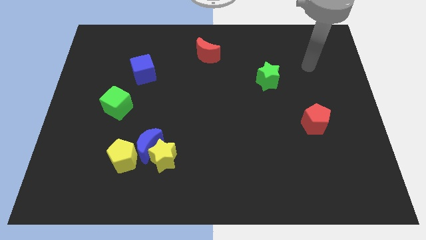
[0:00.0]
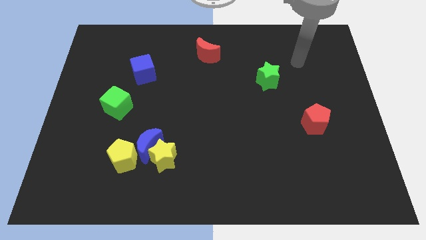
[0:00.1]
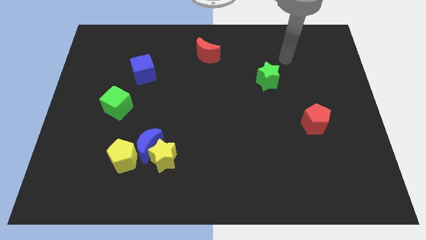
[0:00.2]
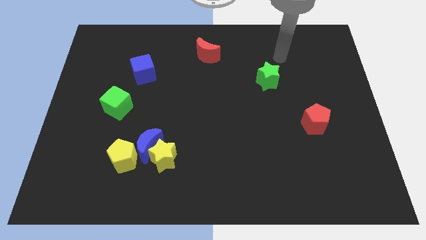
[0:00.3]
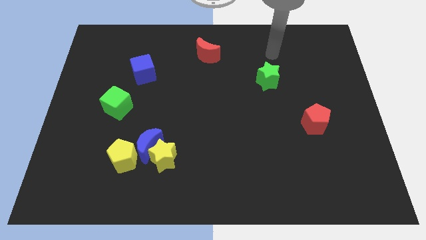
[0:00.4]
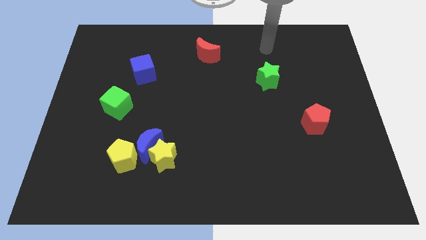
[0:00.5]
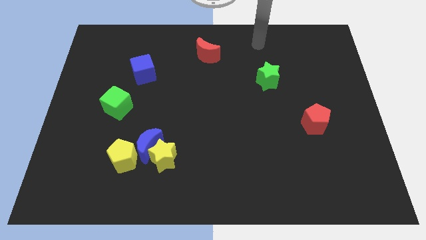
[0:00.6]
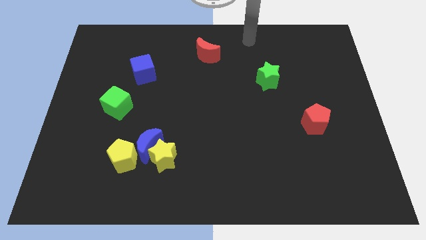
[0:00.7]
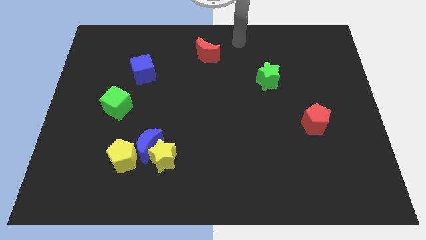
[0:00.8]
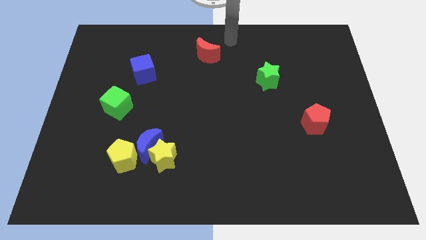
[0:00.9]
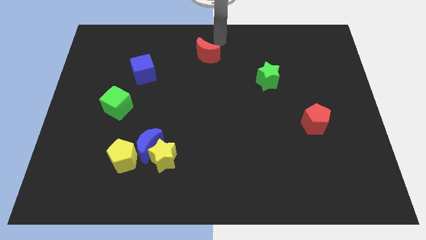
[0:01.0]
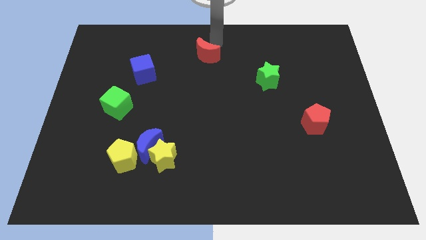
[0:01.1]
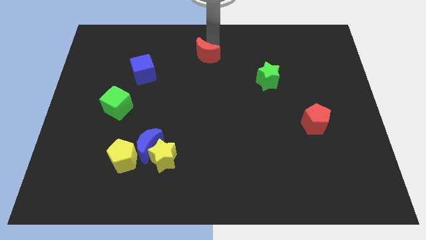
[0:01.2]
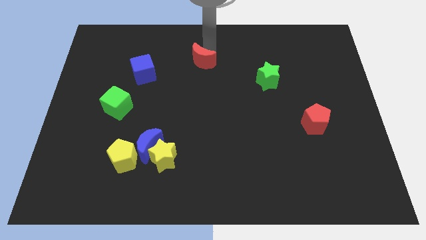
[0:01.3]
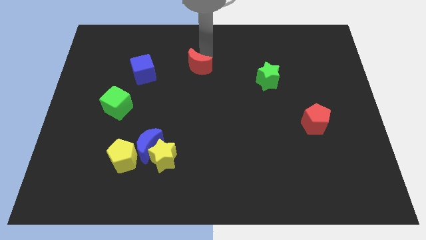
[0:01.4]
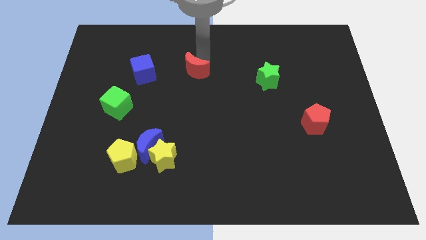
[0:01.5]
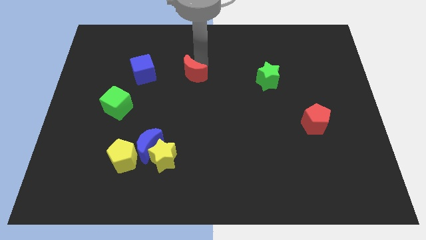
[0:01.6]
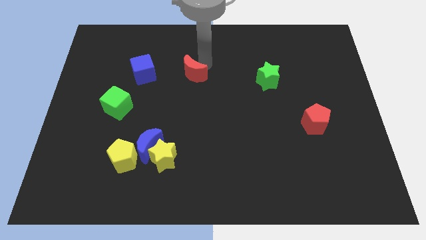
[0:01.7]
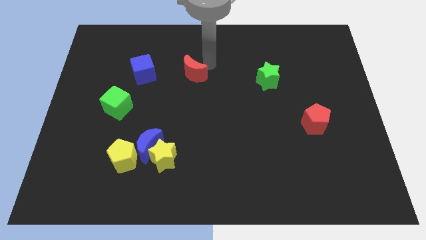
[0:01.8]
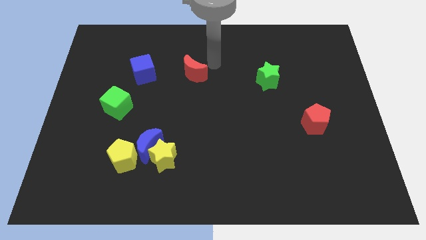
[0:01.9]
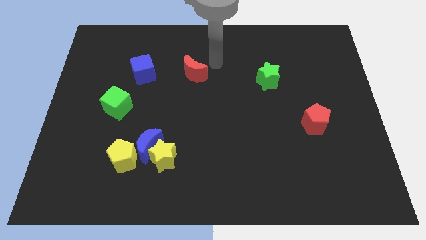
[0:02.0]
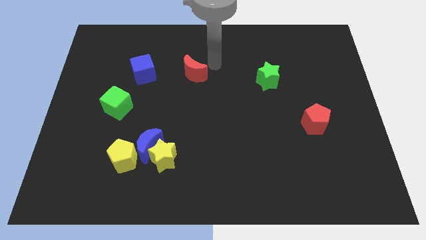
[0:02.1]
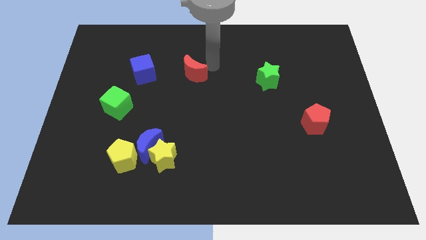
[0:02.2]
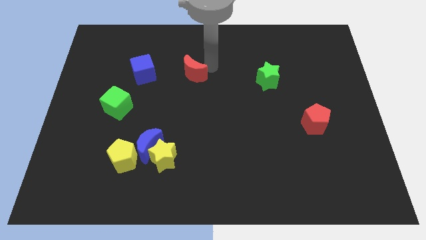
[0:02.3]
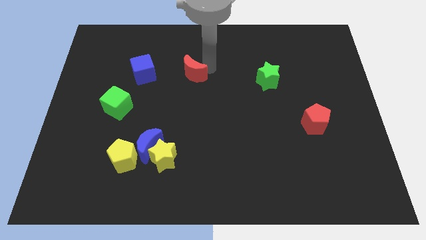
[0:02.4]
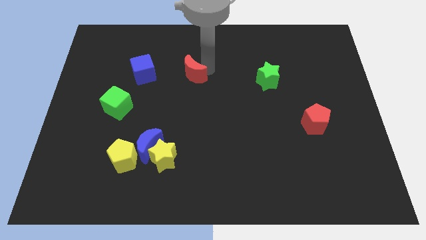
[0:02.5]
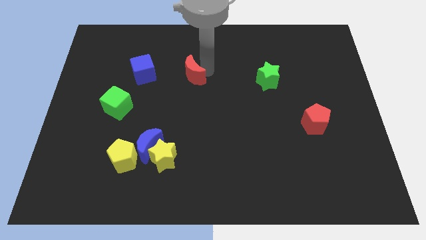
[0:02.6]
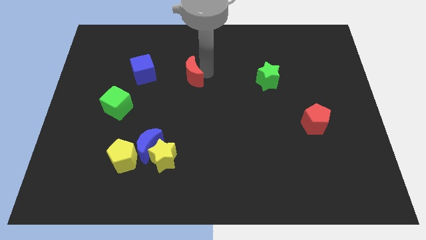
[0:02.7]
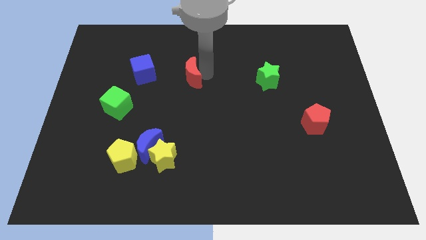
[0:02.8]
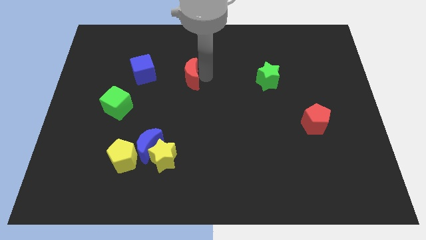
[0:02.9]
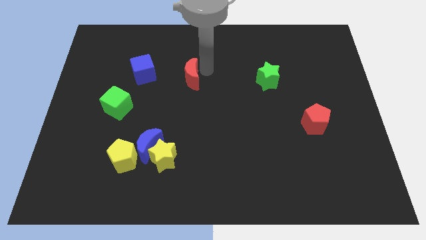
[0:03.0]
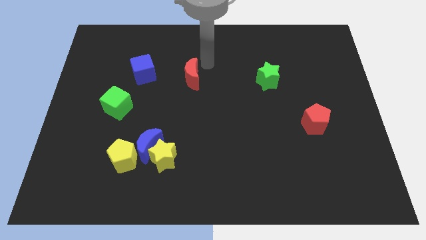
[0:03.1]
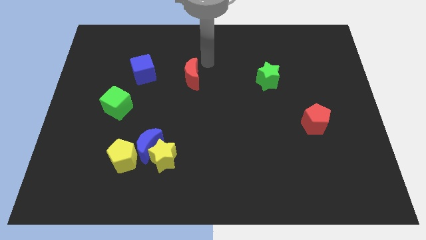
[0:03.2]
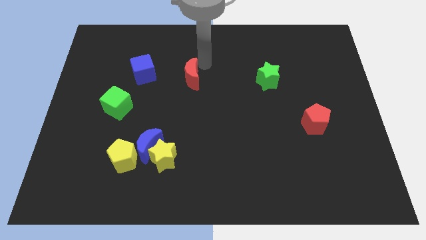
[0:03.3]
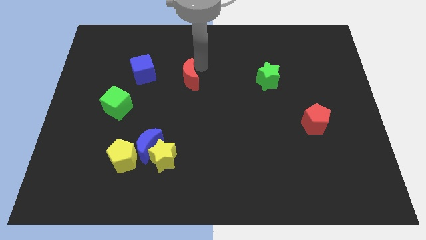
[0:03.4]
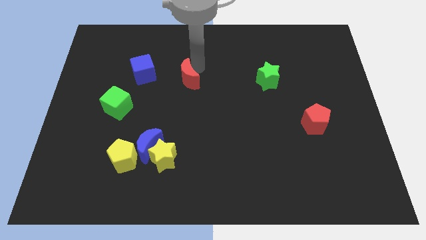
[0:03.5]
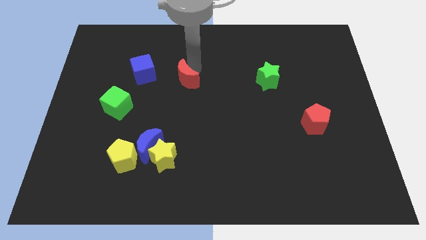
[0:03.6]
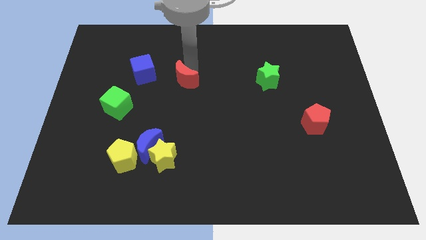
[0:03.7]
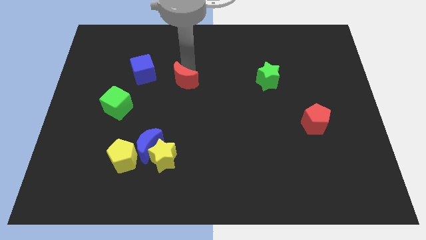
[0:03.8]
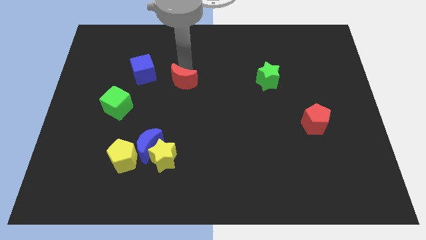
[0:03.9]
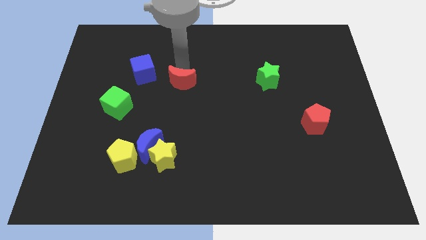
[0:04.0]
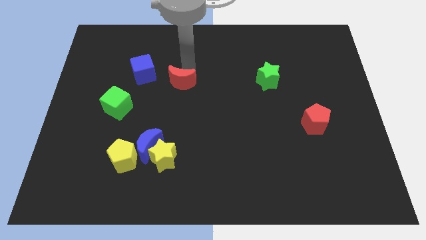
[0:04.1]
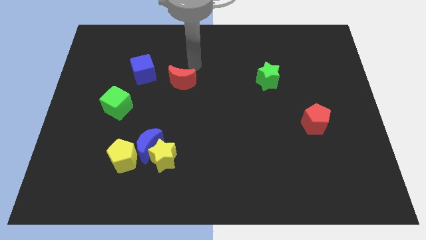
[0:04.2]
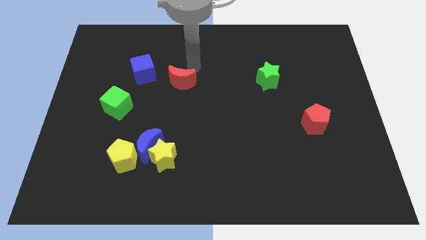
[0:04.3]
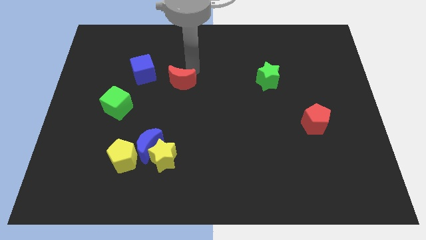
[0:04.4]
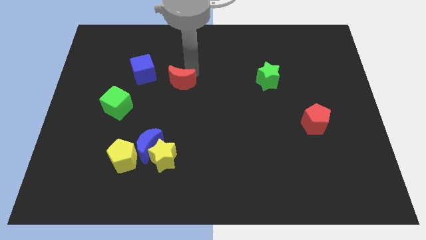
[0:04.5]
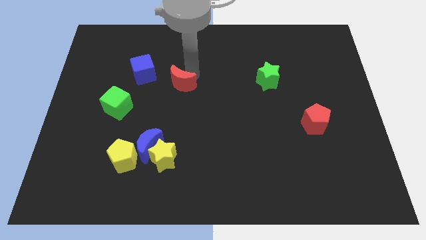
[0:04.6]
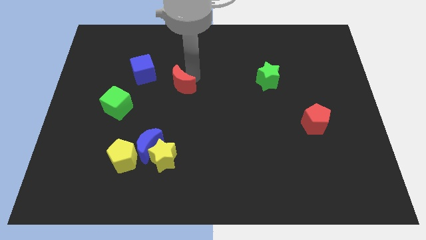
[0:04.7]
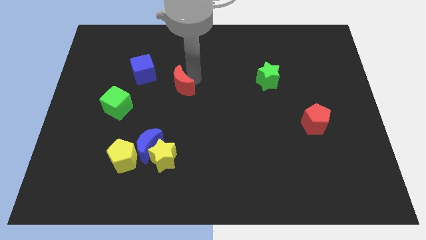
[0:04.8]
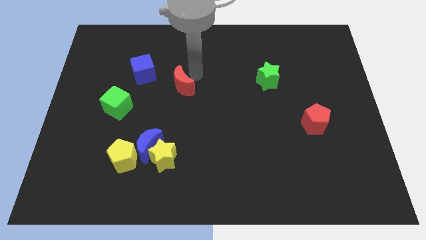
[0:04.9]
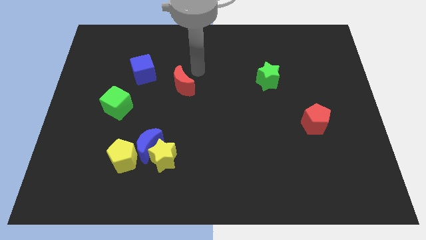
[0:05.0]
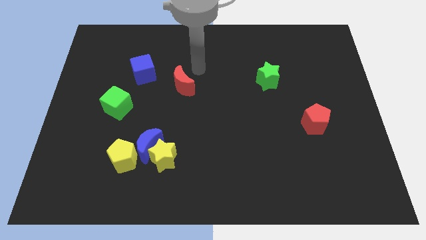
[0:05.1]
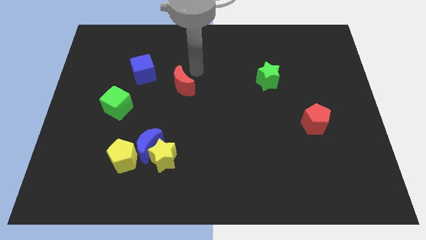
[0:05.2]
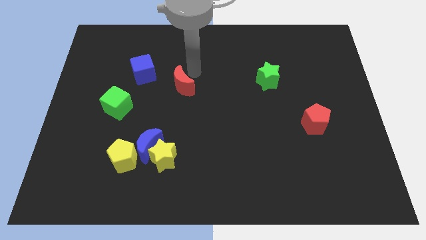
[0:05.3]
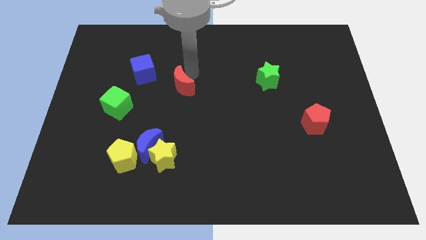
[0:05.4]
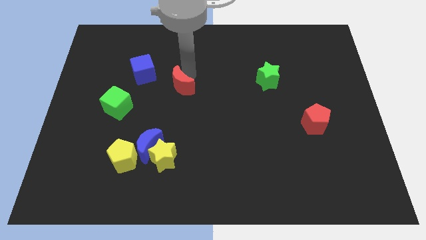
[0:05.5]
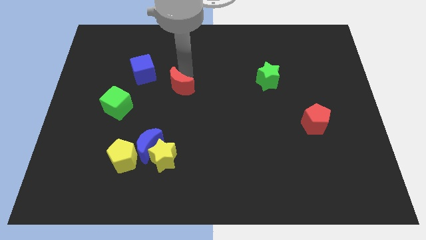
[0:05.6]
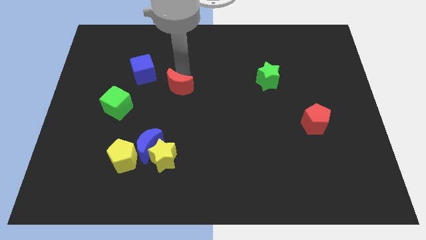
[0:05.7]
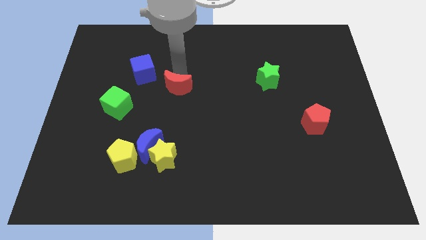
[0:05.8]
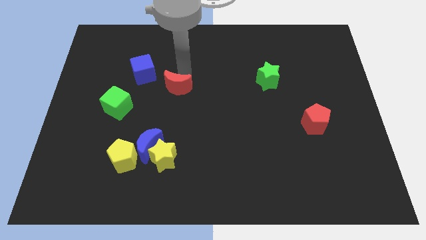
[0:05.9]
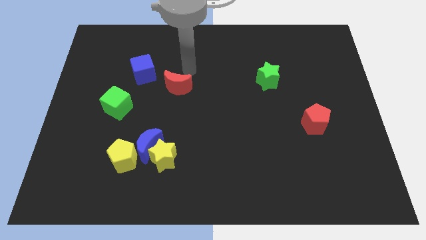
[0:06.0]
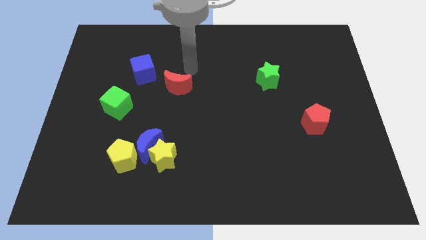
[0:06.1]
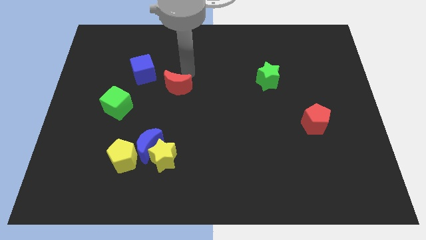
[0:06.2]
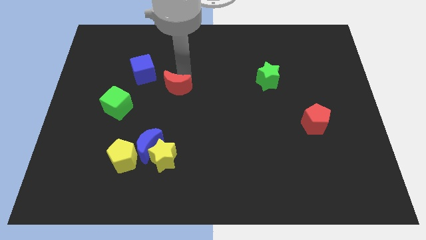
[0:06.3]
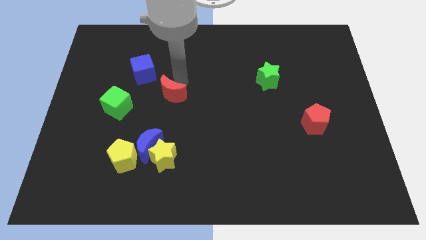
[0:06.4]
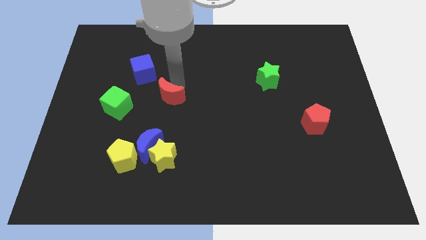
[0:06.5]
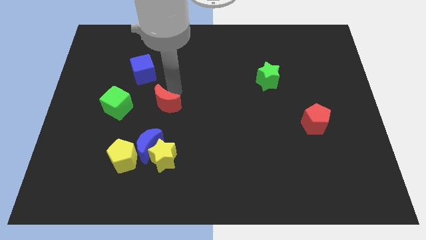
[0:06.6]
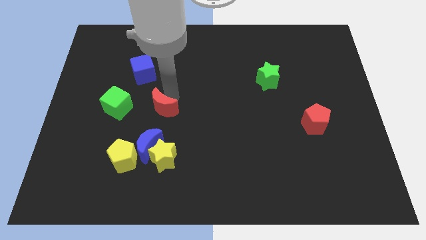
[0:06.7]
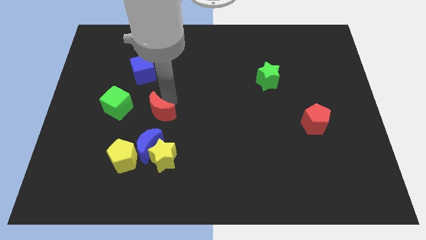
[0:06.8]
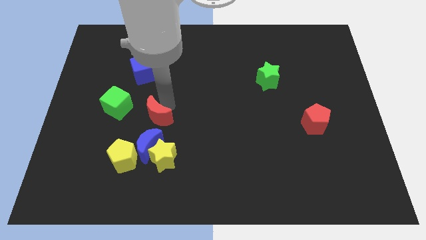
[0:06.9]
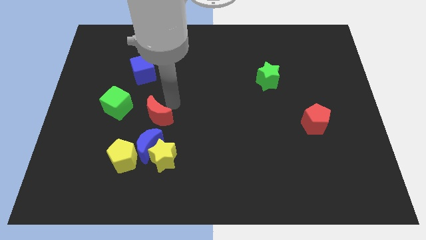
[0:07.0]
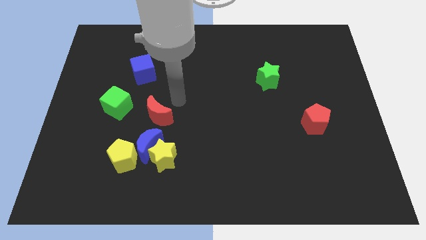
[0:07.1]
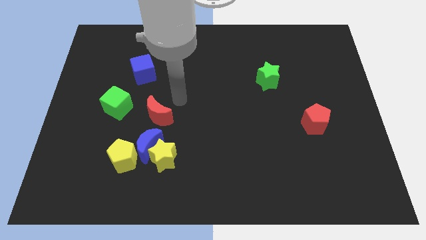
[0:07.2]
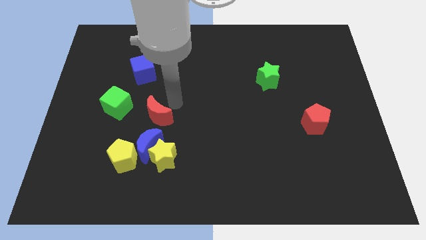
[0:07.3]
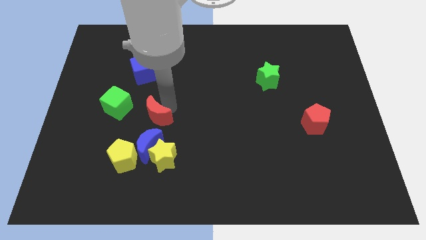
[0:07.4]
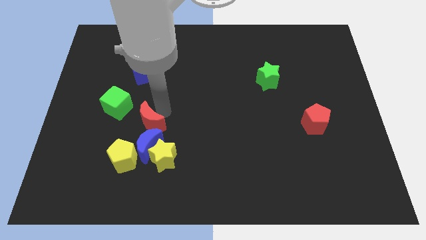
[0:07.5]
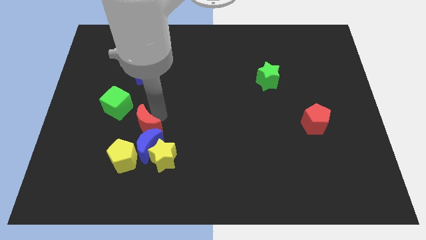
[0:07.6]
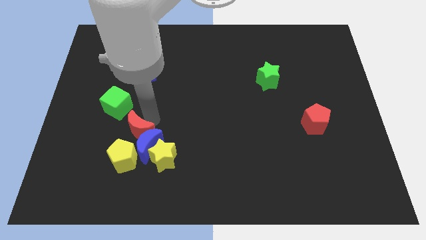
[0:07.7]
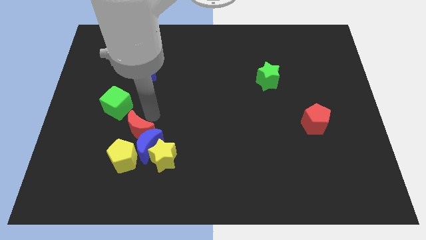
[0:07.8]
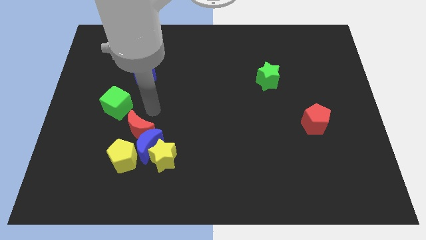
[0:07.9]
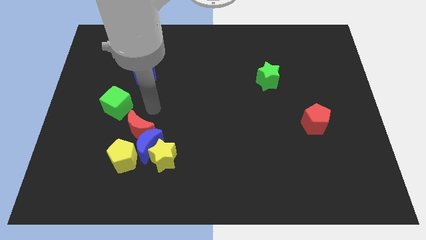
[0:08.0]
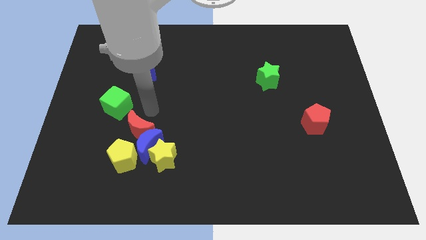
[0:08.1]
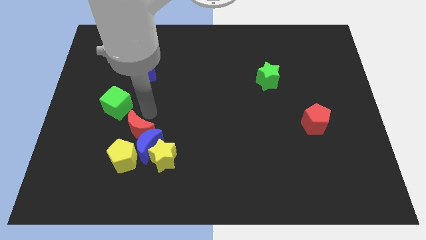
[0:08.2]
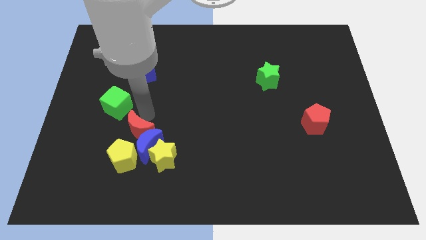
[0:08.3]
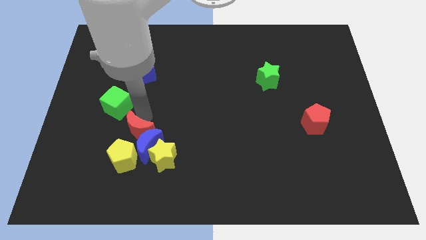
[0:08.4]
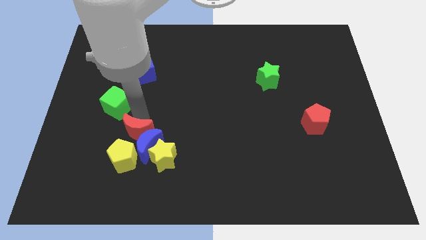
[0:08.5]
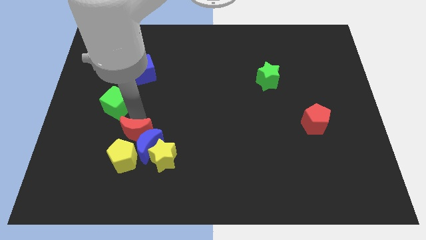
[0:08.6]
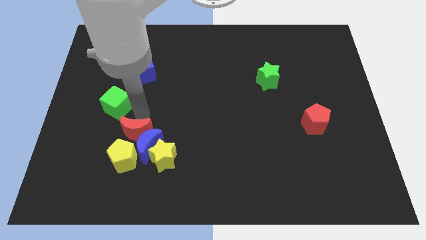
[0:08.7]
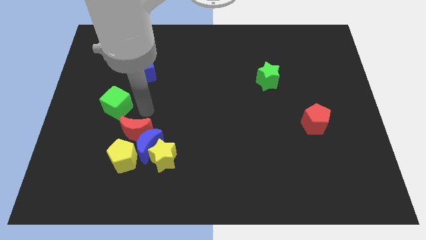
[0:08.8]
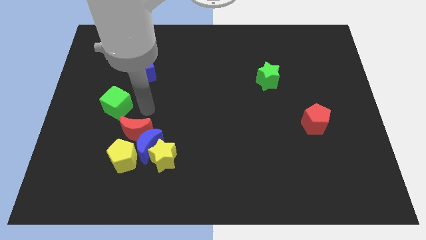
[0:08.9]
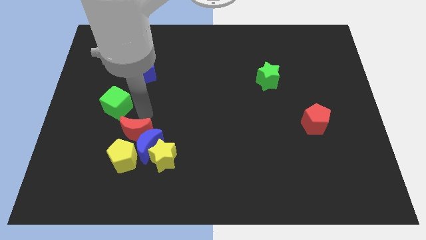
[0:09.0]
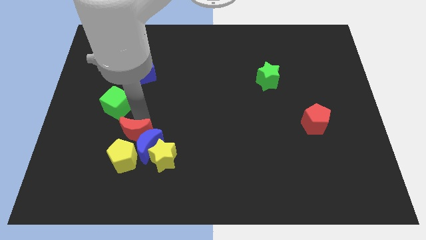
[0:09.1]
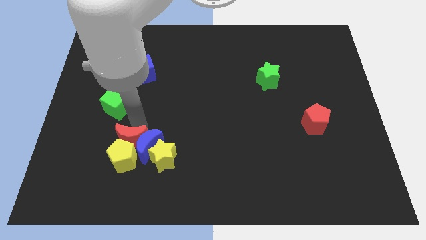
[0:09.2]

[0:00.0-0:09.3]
move the red moon towards the yellow pentagon
